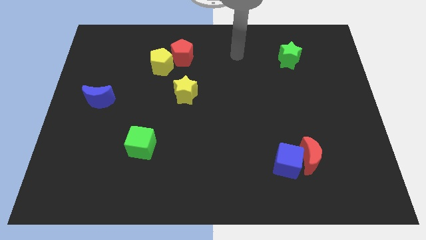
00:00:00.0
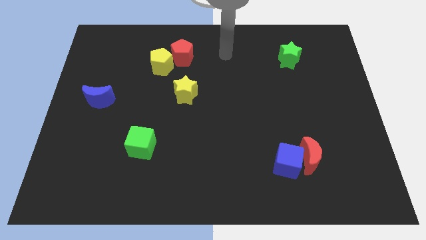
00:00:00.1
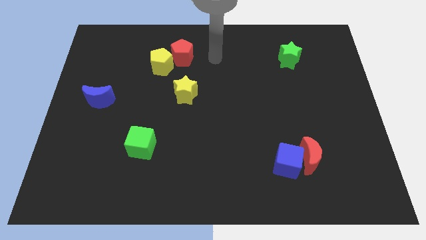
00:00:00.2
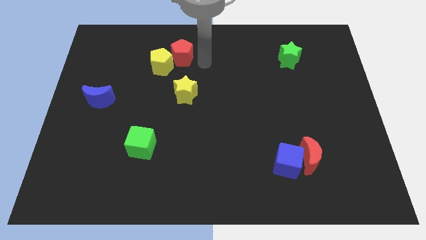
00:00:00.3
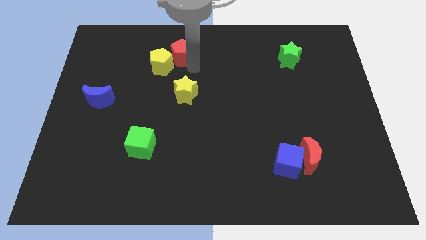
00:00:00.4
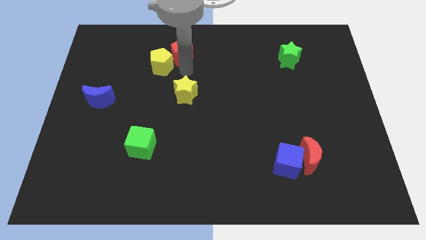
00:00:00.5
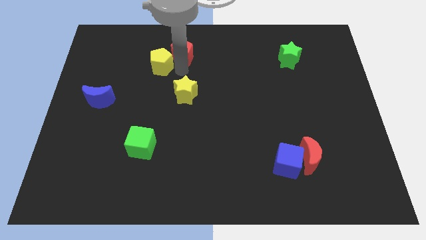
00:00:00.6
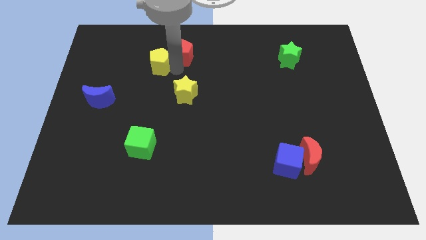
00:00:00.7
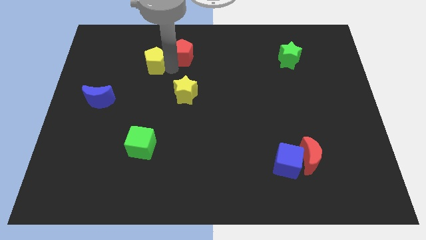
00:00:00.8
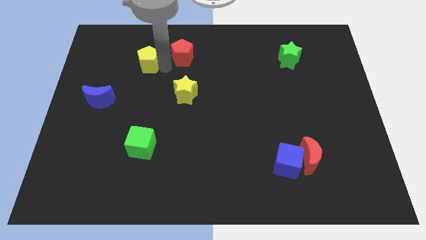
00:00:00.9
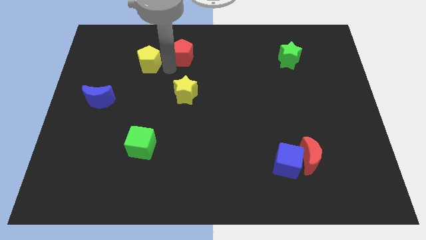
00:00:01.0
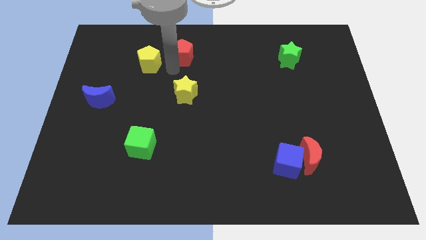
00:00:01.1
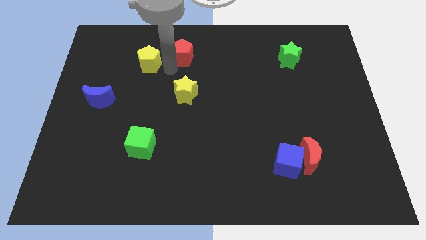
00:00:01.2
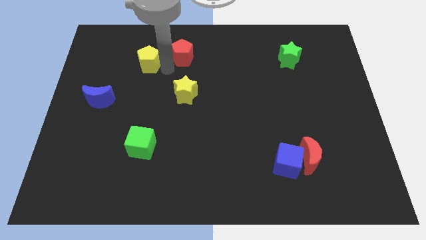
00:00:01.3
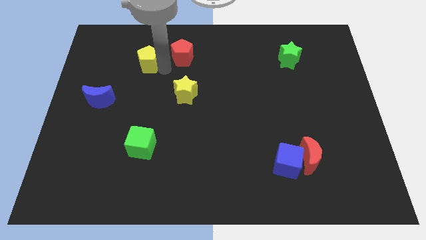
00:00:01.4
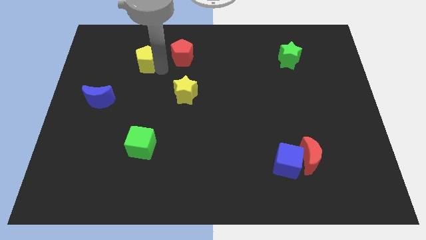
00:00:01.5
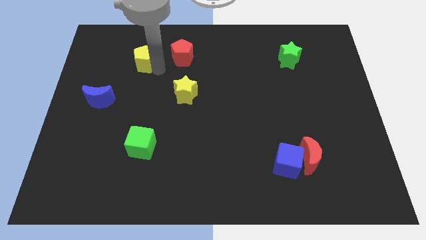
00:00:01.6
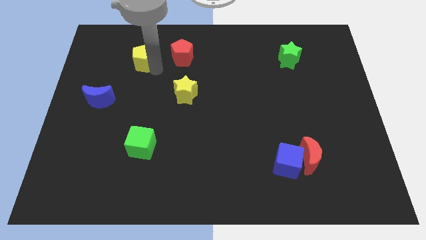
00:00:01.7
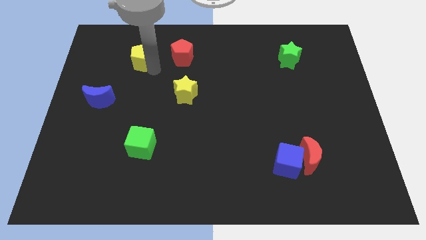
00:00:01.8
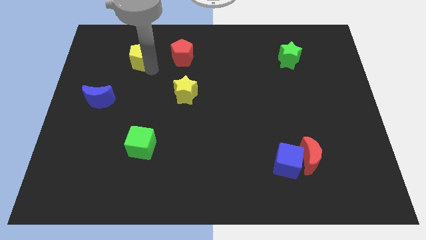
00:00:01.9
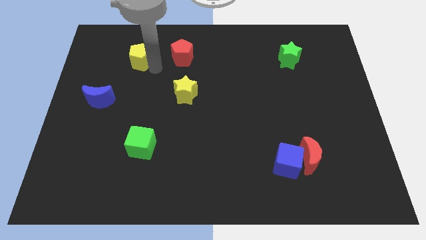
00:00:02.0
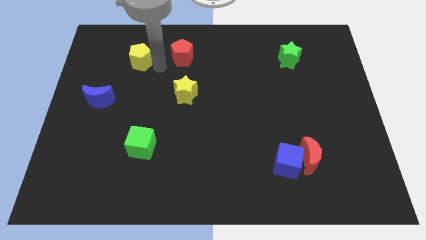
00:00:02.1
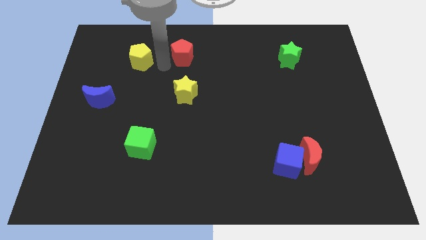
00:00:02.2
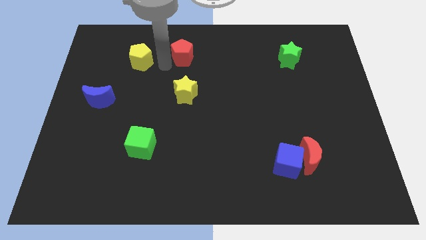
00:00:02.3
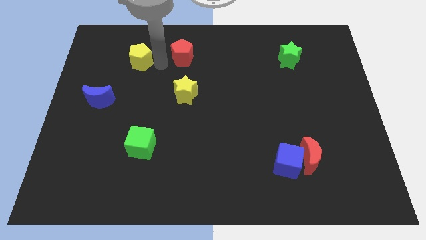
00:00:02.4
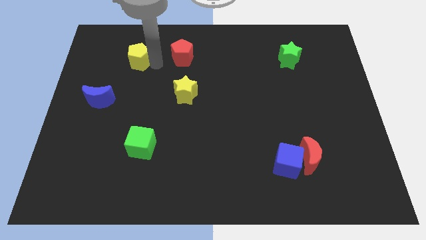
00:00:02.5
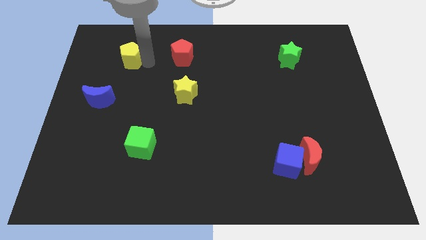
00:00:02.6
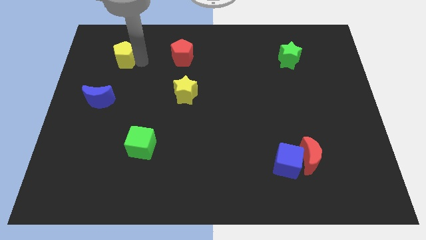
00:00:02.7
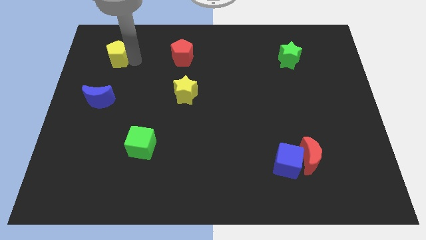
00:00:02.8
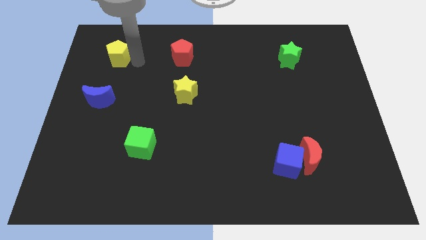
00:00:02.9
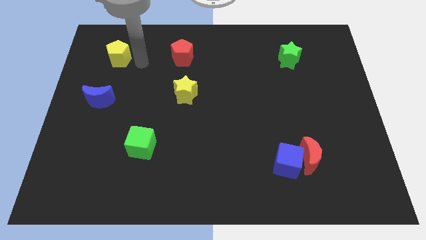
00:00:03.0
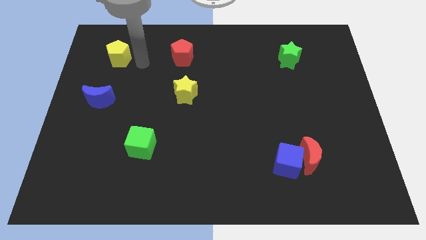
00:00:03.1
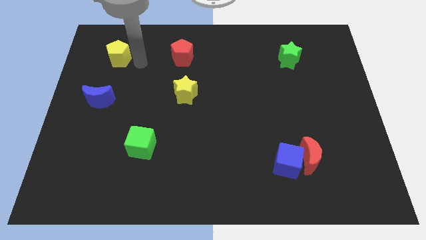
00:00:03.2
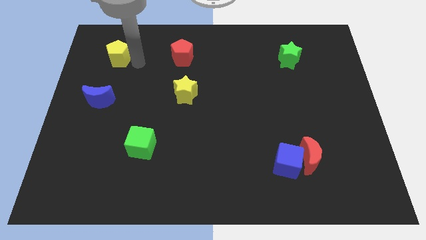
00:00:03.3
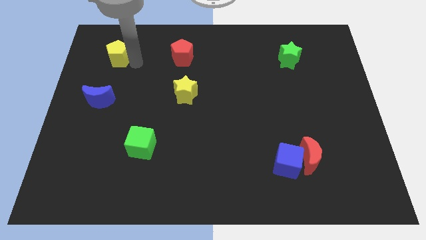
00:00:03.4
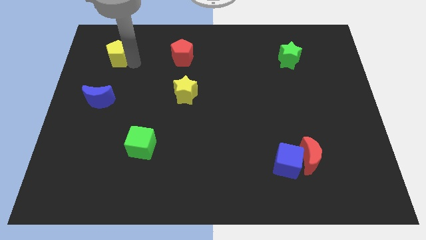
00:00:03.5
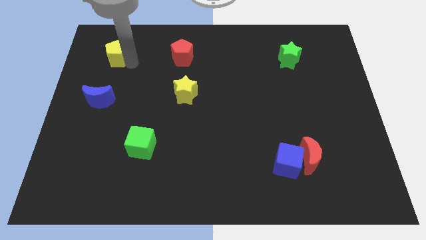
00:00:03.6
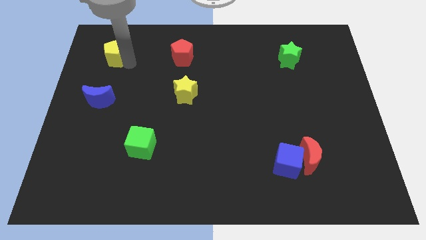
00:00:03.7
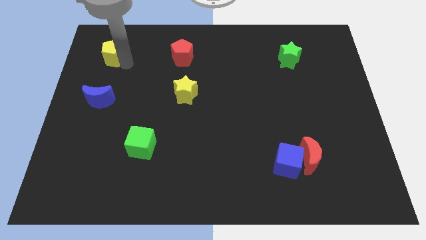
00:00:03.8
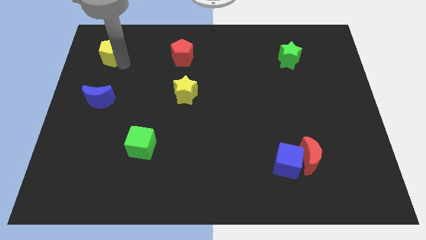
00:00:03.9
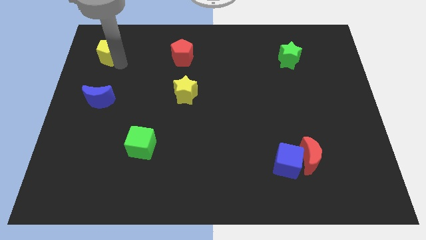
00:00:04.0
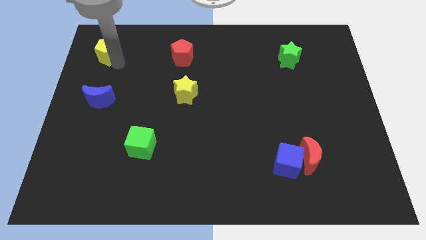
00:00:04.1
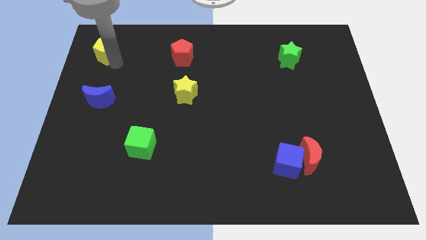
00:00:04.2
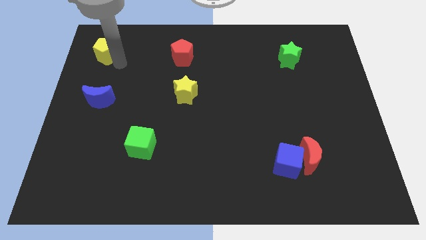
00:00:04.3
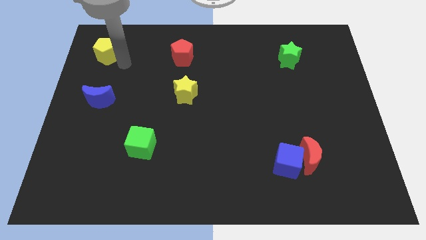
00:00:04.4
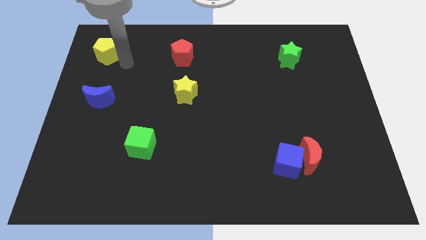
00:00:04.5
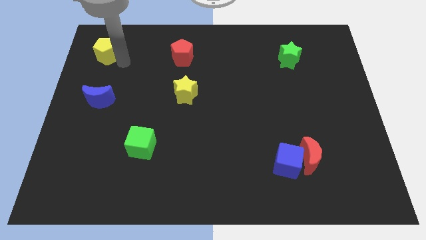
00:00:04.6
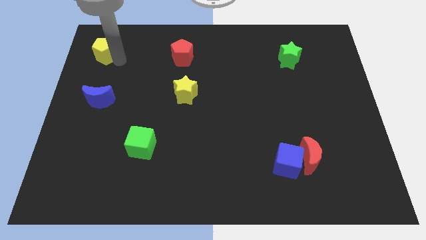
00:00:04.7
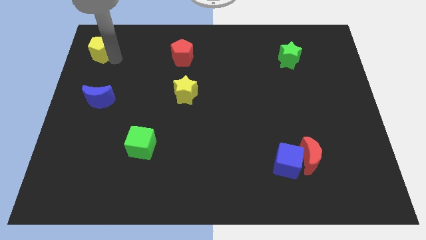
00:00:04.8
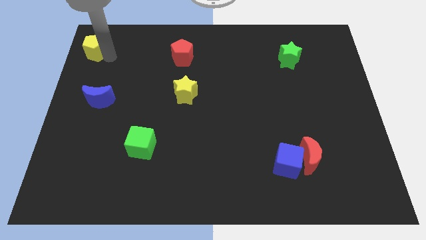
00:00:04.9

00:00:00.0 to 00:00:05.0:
push the yellow pentagon to the top left corner

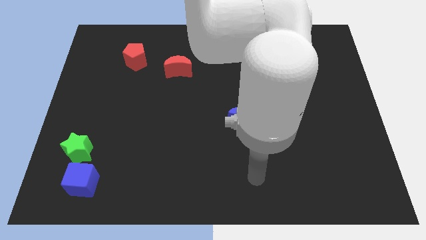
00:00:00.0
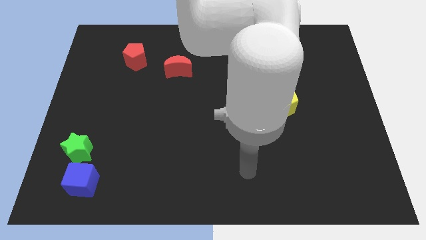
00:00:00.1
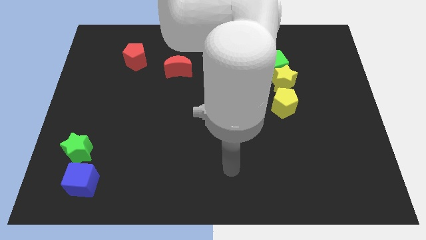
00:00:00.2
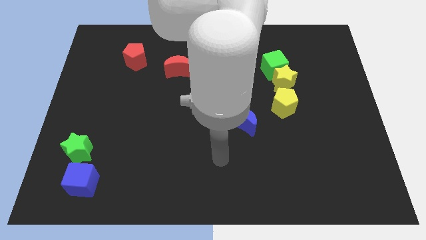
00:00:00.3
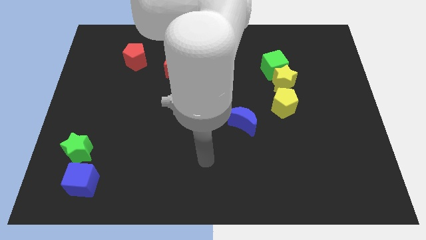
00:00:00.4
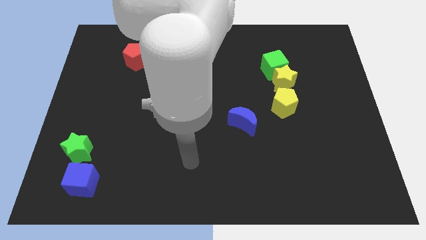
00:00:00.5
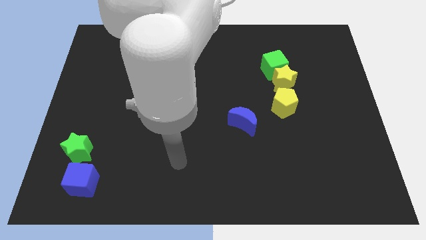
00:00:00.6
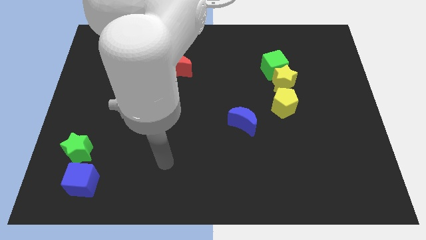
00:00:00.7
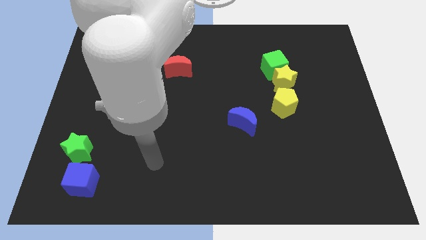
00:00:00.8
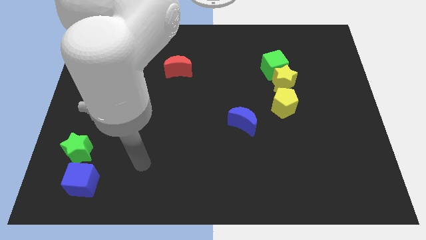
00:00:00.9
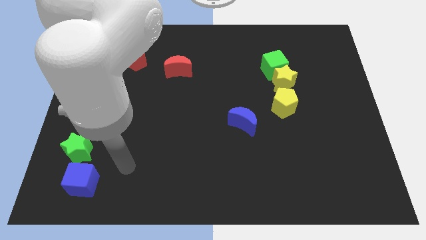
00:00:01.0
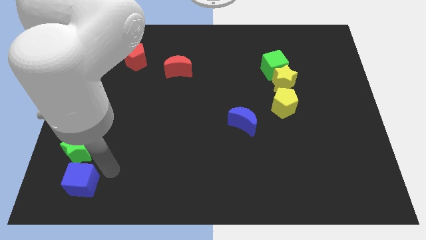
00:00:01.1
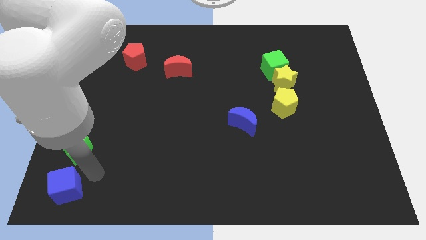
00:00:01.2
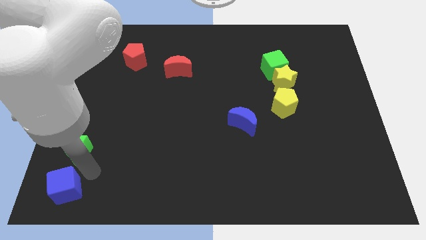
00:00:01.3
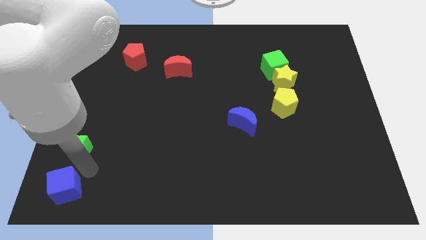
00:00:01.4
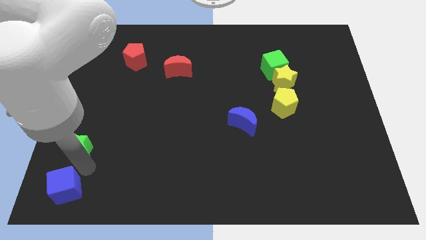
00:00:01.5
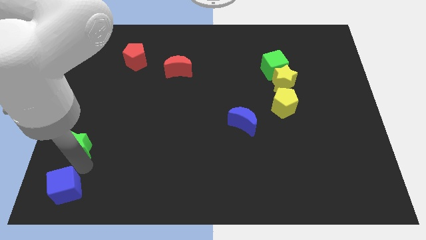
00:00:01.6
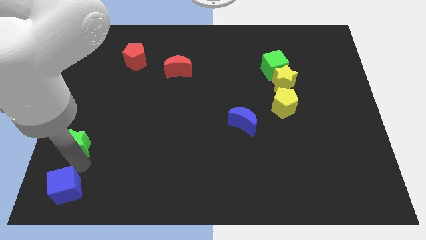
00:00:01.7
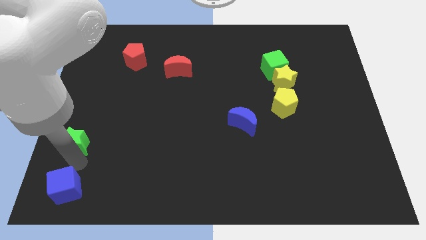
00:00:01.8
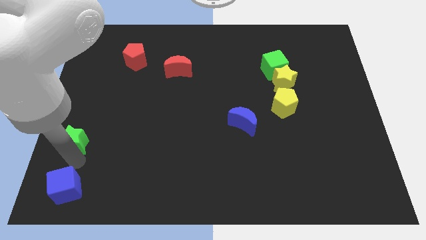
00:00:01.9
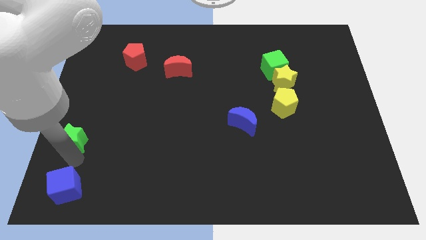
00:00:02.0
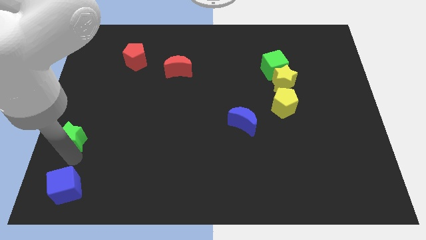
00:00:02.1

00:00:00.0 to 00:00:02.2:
push the green star to the left side of the board
